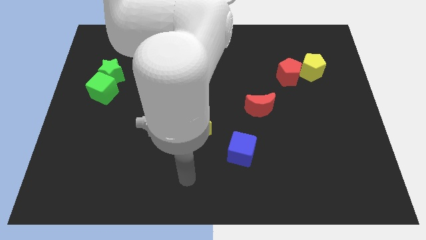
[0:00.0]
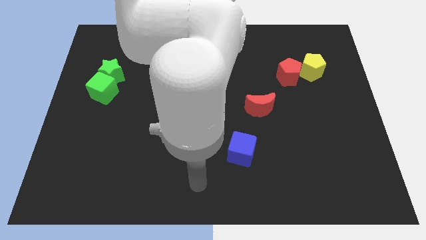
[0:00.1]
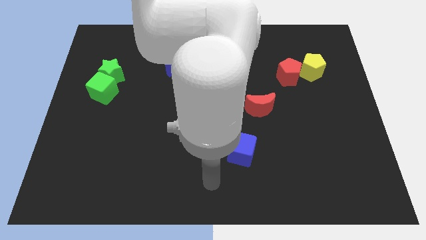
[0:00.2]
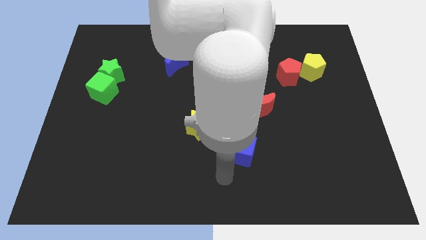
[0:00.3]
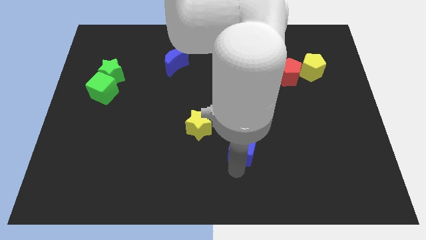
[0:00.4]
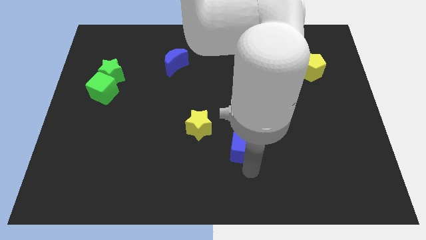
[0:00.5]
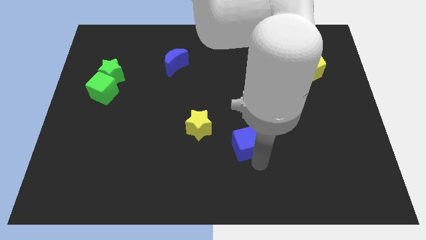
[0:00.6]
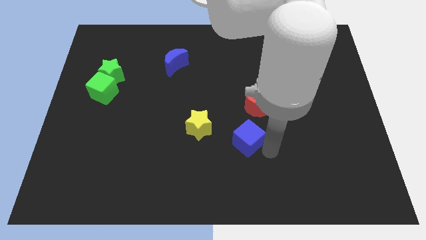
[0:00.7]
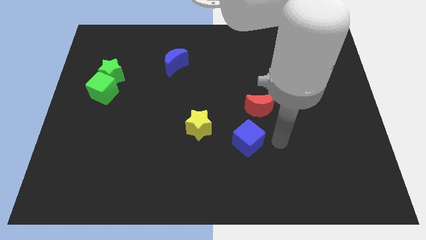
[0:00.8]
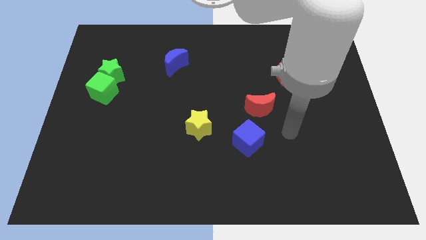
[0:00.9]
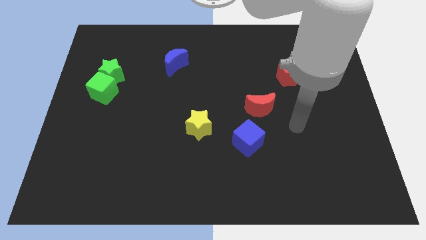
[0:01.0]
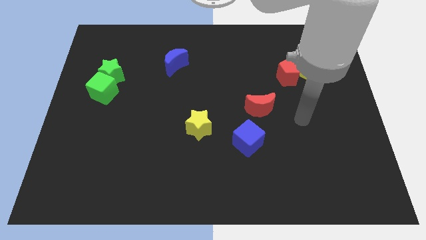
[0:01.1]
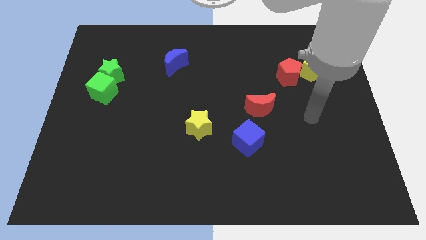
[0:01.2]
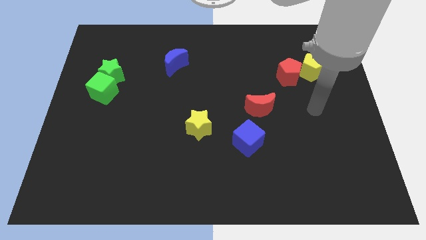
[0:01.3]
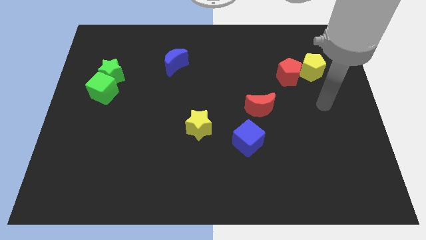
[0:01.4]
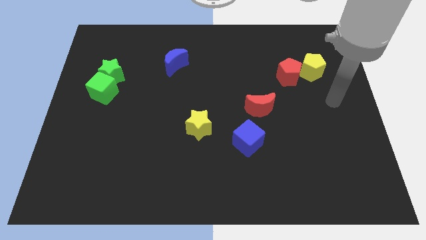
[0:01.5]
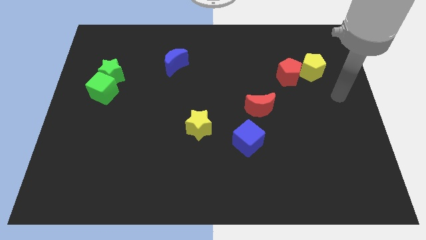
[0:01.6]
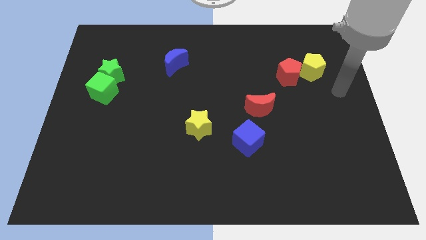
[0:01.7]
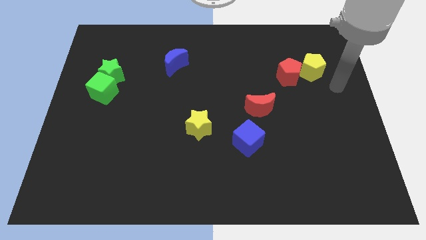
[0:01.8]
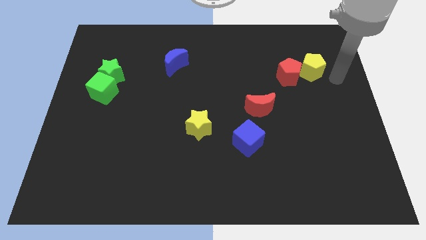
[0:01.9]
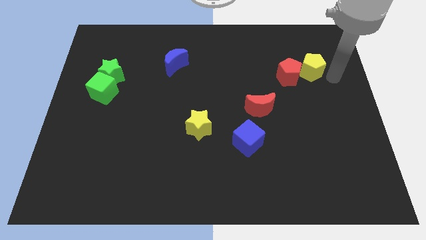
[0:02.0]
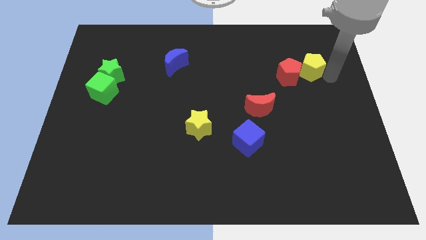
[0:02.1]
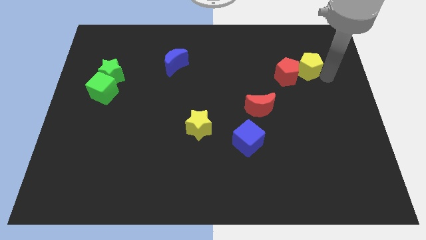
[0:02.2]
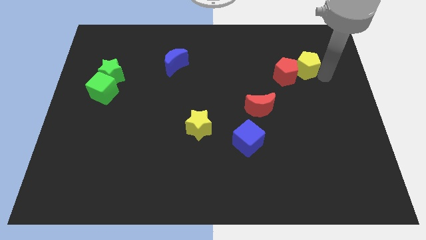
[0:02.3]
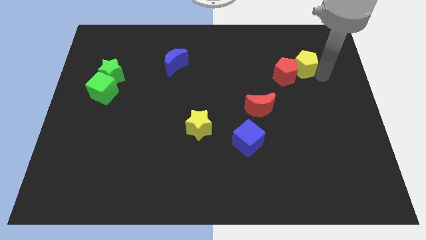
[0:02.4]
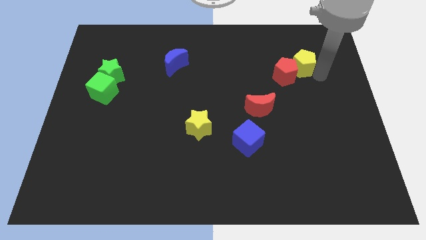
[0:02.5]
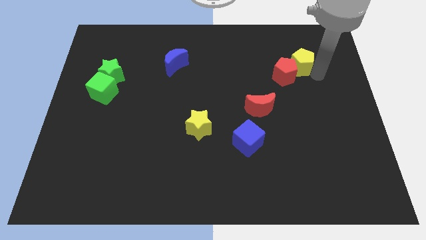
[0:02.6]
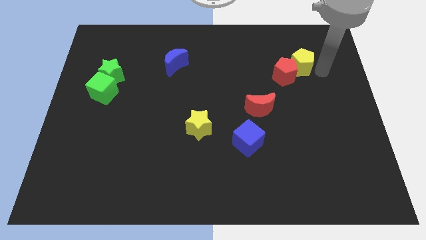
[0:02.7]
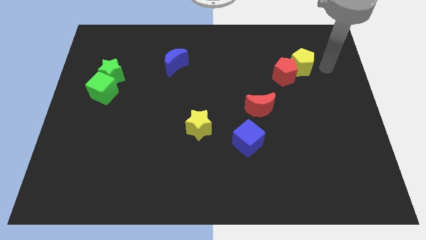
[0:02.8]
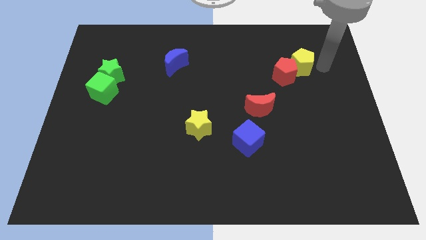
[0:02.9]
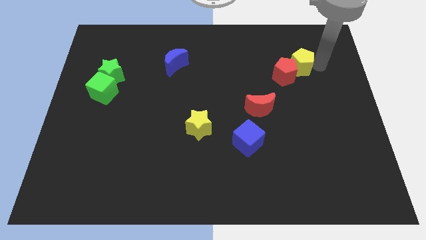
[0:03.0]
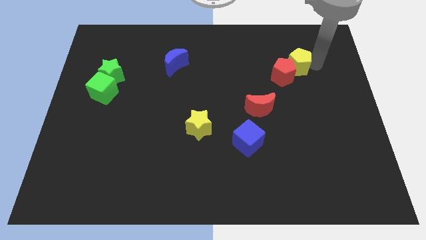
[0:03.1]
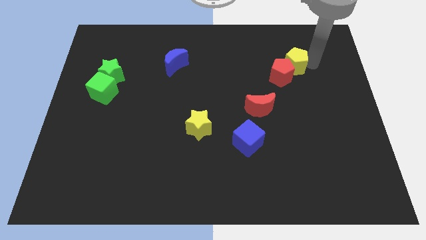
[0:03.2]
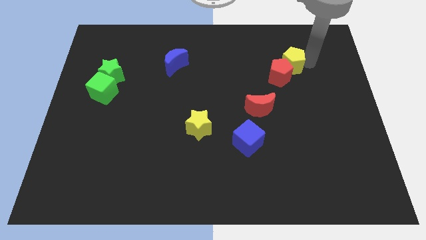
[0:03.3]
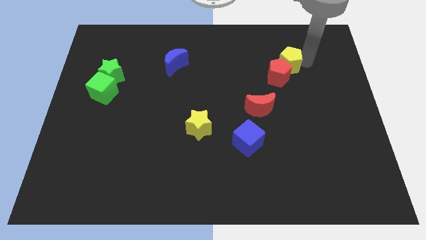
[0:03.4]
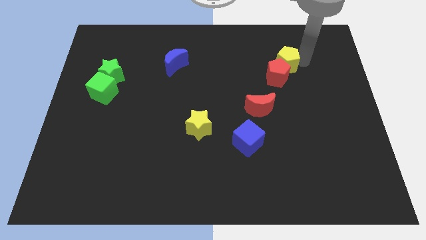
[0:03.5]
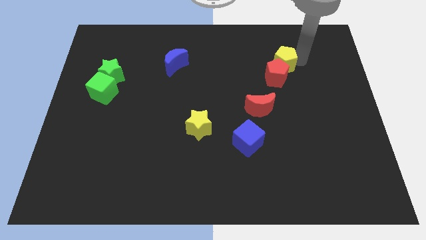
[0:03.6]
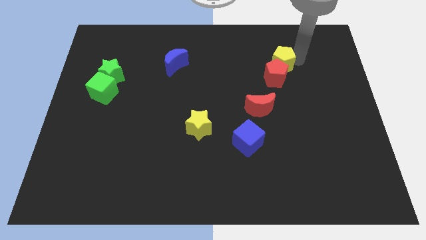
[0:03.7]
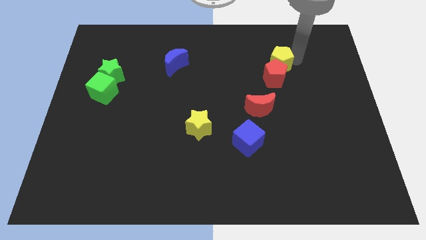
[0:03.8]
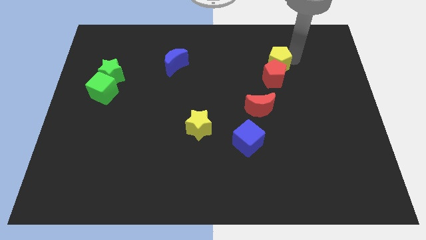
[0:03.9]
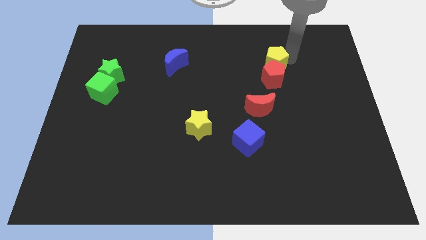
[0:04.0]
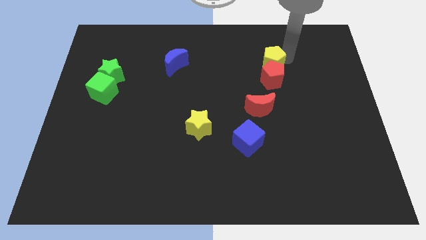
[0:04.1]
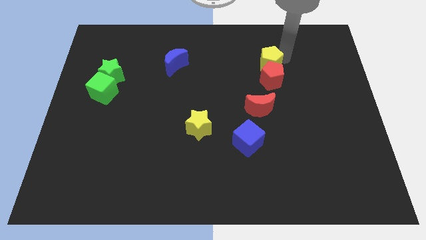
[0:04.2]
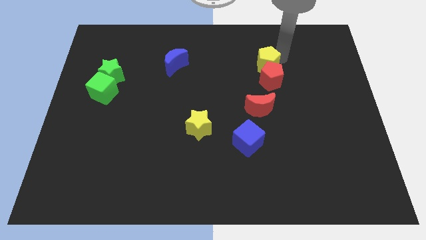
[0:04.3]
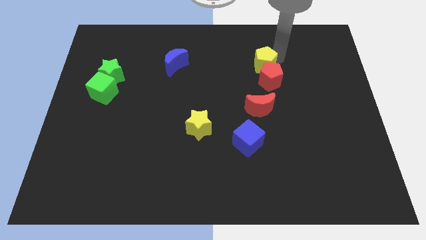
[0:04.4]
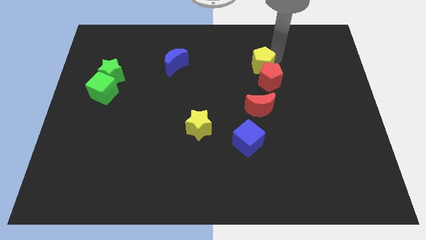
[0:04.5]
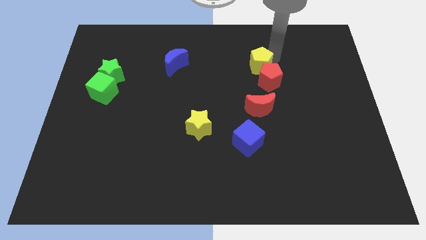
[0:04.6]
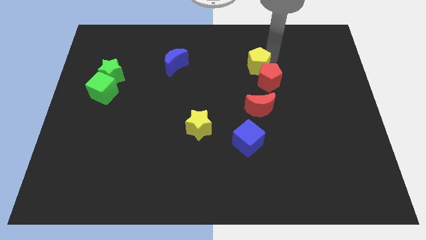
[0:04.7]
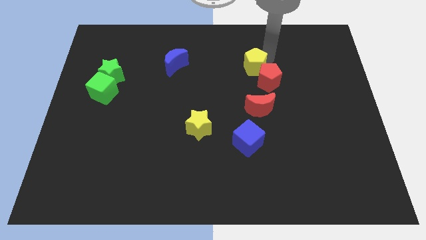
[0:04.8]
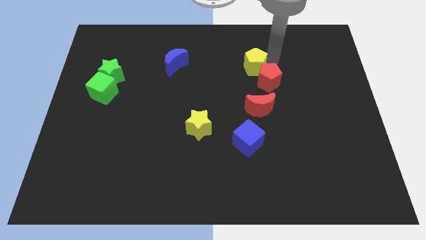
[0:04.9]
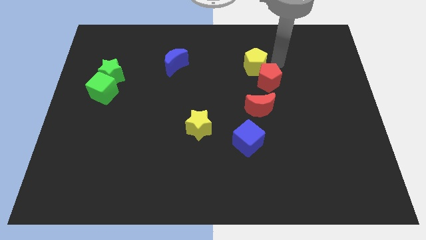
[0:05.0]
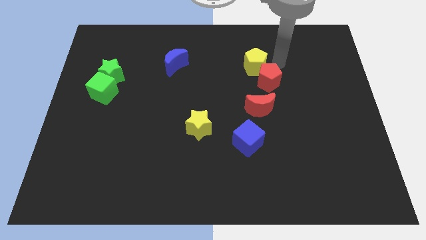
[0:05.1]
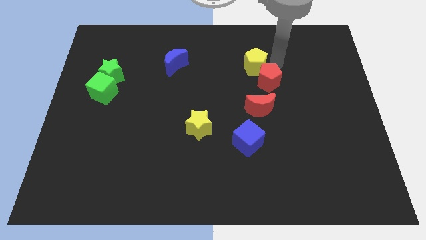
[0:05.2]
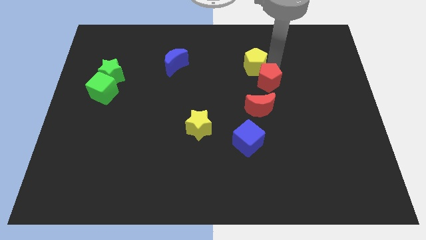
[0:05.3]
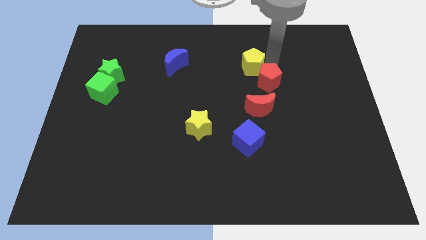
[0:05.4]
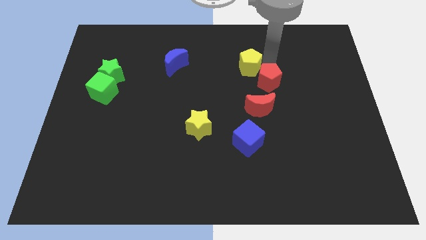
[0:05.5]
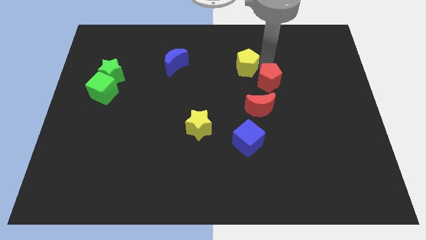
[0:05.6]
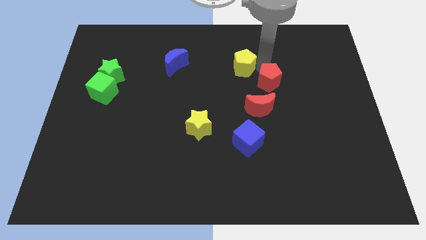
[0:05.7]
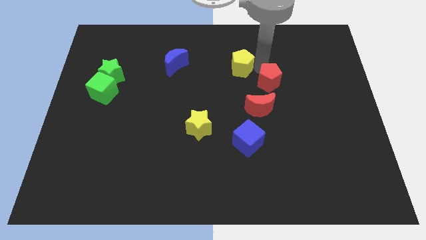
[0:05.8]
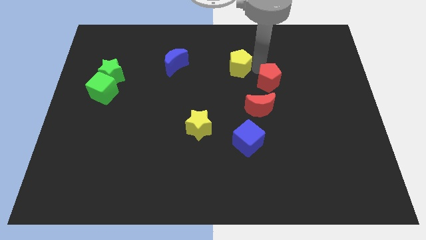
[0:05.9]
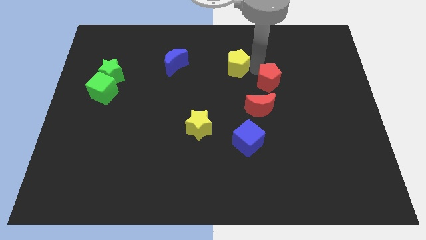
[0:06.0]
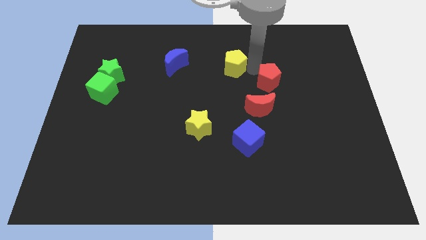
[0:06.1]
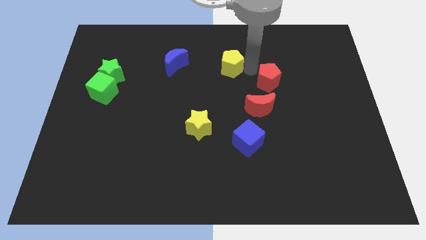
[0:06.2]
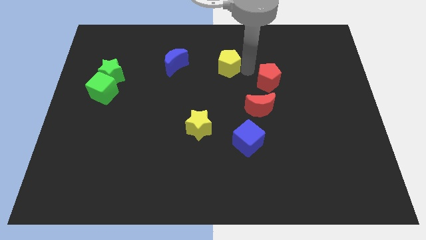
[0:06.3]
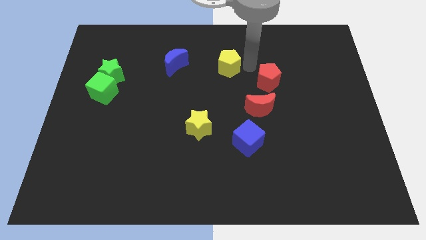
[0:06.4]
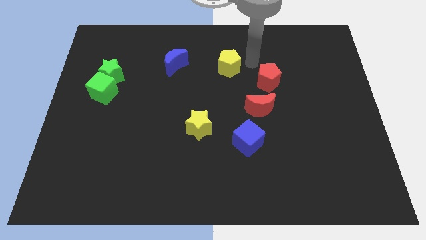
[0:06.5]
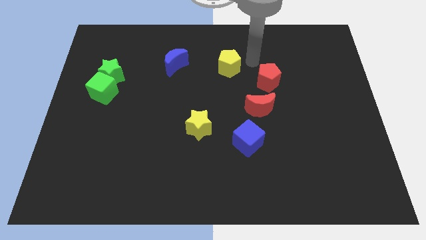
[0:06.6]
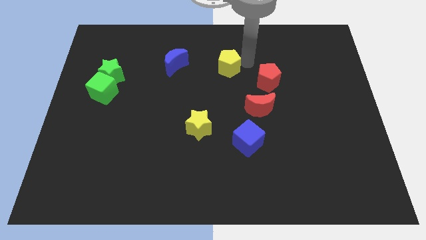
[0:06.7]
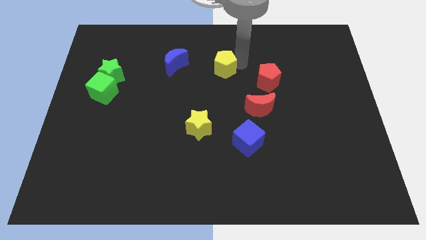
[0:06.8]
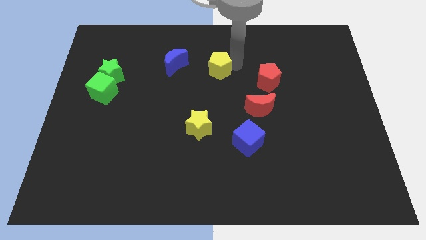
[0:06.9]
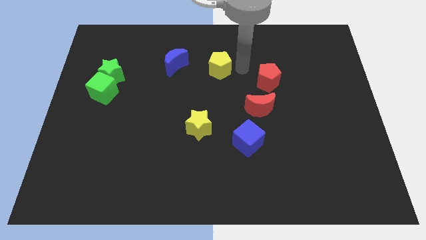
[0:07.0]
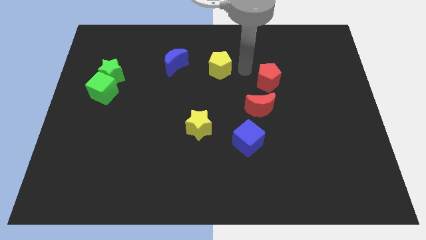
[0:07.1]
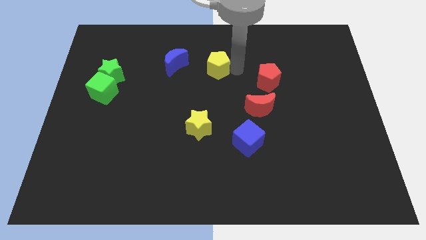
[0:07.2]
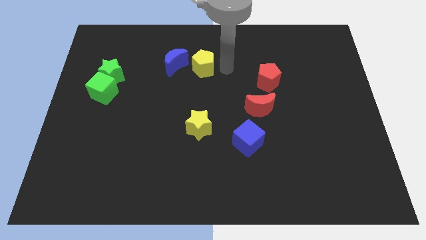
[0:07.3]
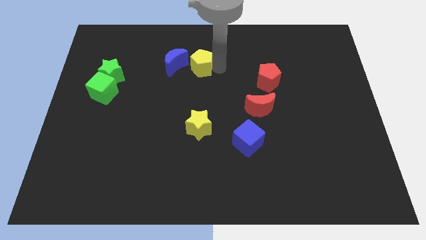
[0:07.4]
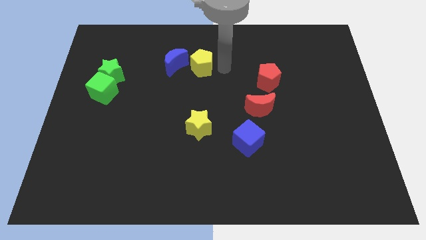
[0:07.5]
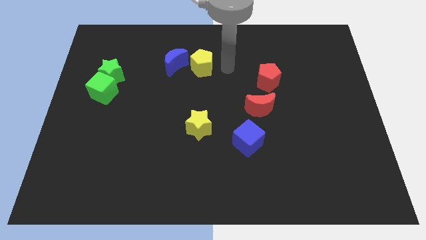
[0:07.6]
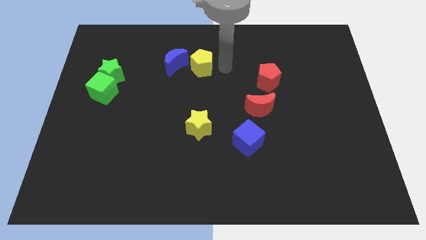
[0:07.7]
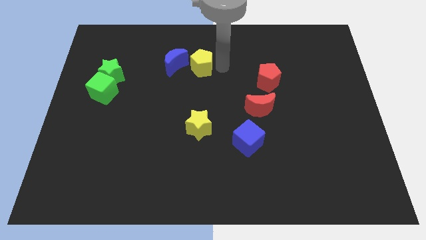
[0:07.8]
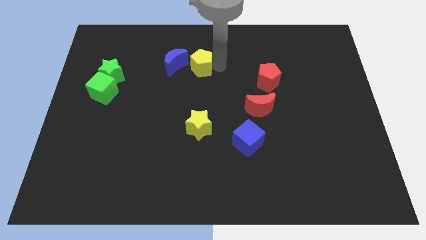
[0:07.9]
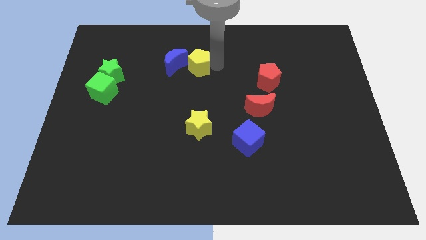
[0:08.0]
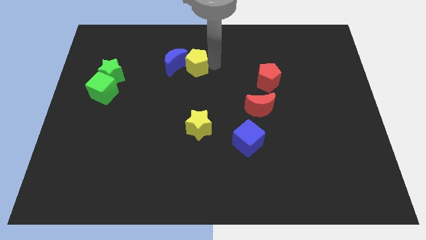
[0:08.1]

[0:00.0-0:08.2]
move the yellow pentagon to the blue moon
